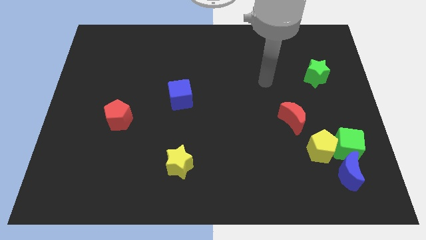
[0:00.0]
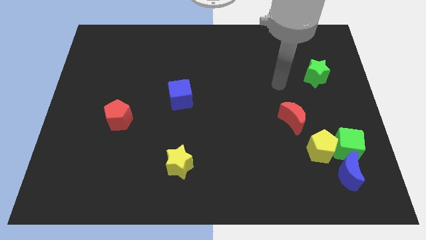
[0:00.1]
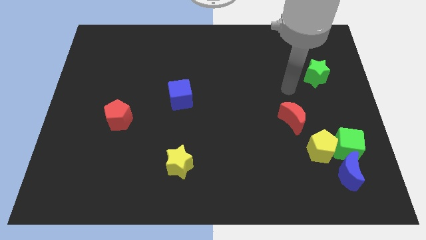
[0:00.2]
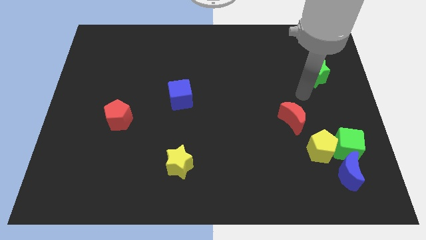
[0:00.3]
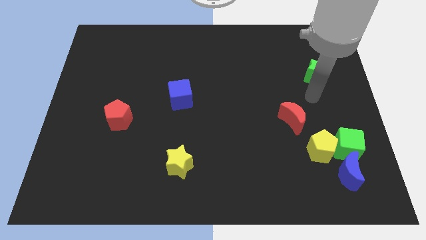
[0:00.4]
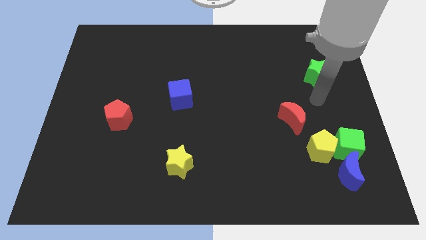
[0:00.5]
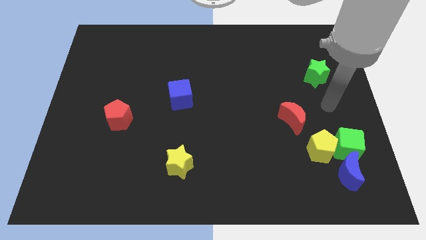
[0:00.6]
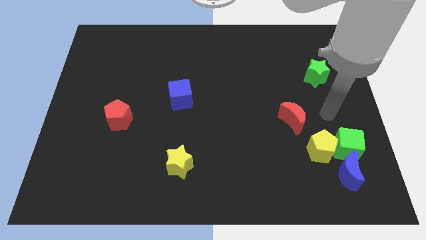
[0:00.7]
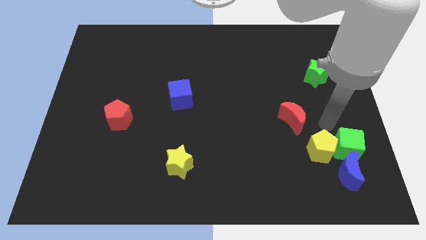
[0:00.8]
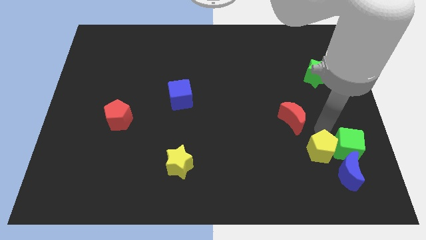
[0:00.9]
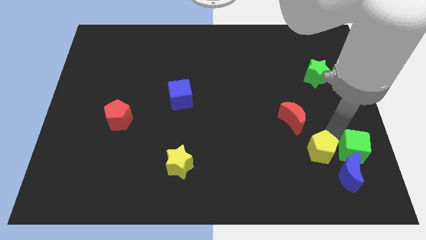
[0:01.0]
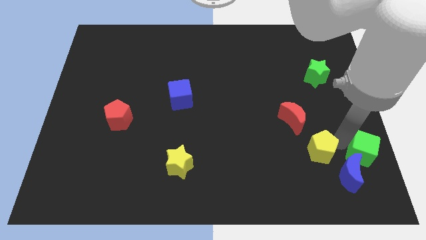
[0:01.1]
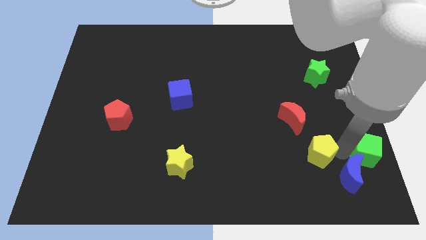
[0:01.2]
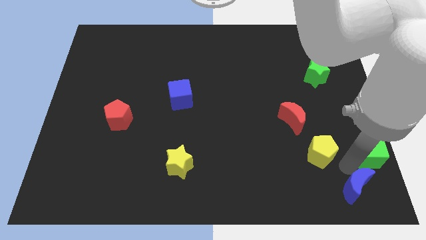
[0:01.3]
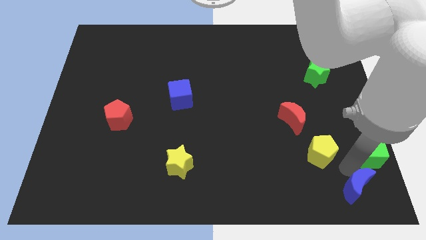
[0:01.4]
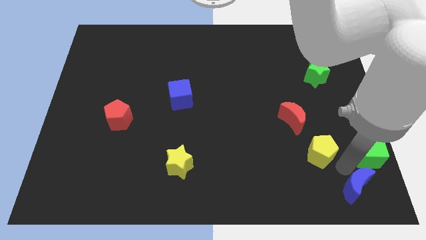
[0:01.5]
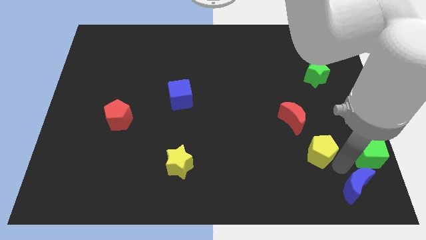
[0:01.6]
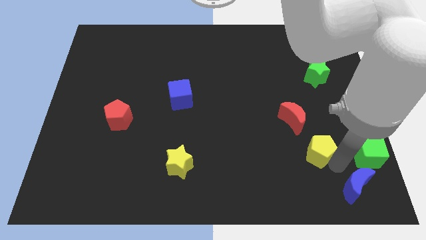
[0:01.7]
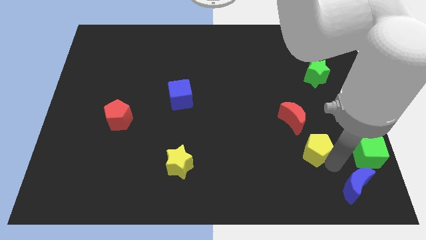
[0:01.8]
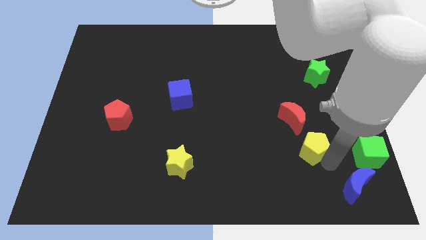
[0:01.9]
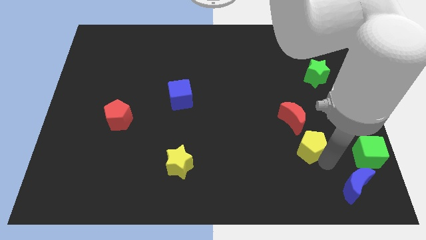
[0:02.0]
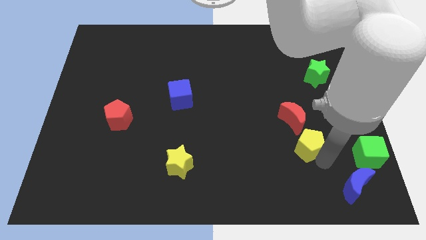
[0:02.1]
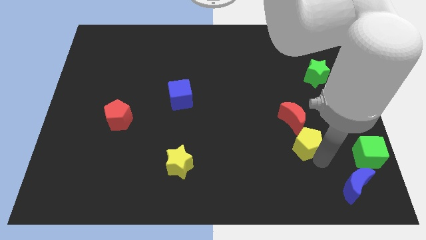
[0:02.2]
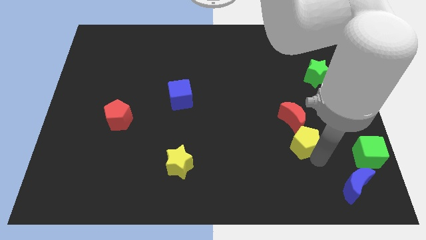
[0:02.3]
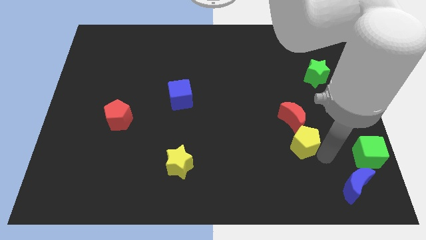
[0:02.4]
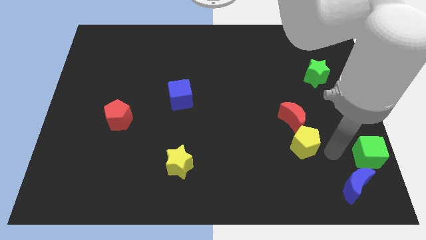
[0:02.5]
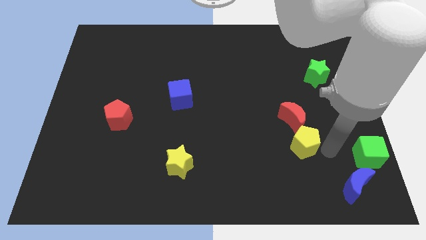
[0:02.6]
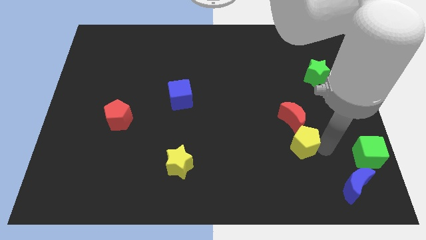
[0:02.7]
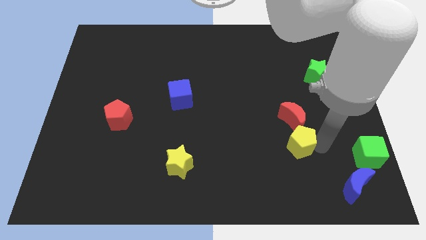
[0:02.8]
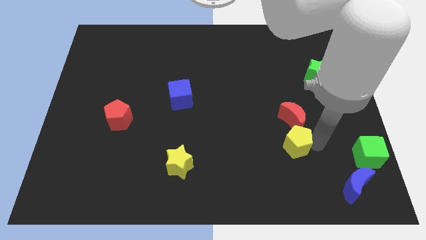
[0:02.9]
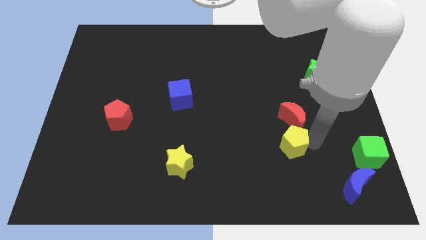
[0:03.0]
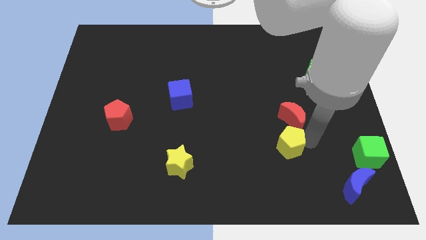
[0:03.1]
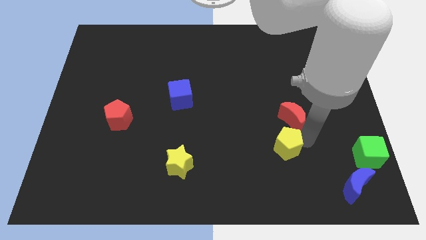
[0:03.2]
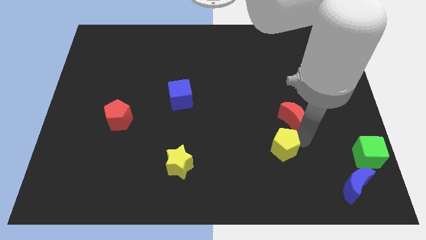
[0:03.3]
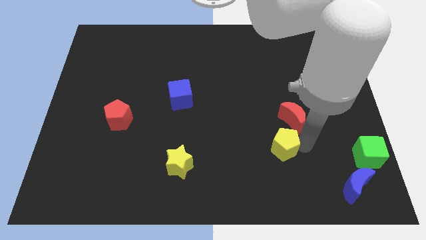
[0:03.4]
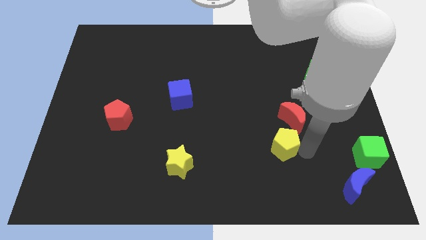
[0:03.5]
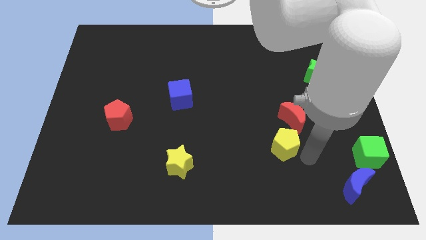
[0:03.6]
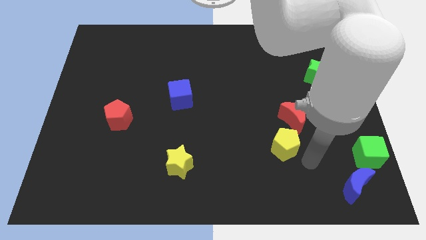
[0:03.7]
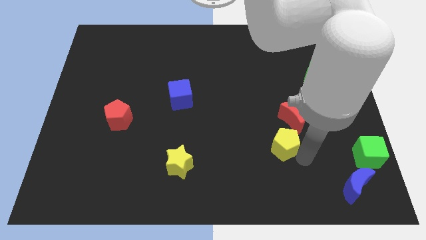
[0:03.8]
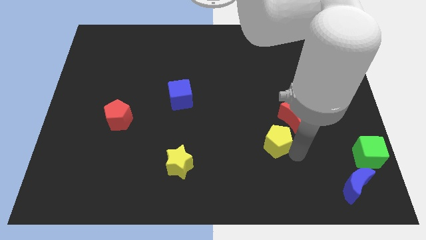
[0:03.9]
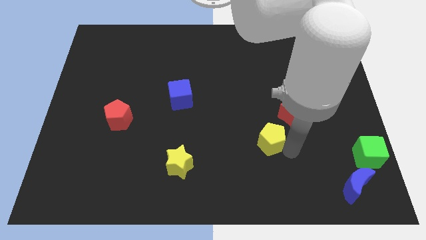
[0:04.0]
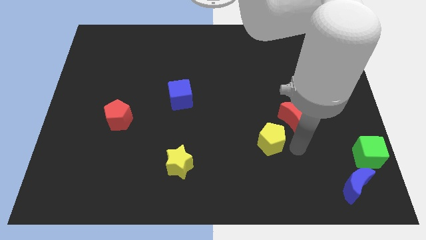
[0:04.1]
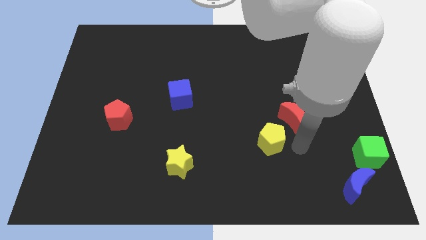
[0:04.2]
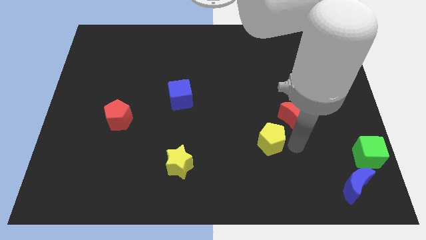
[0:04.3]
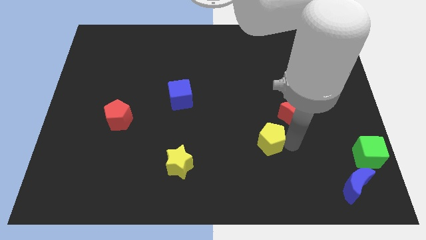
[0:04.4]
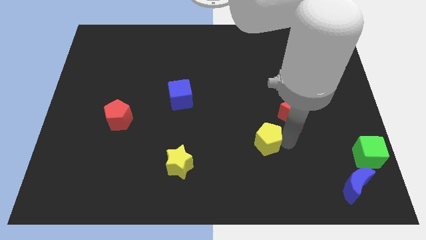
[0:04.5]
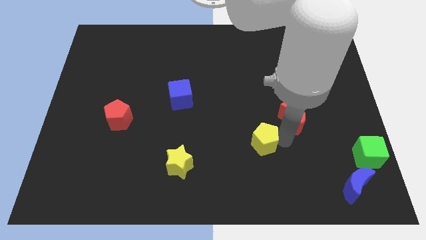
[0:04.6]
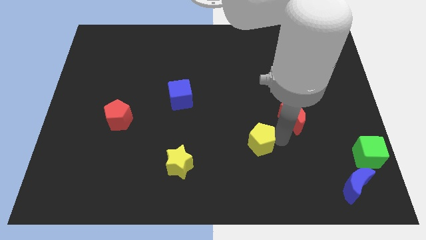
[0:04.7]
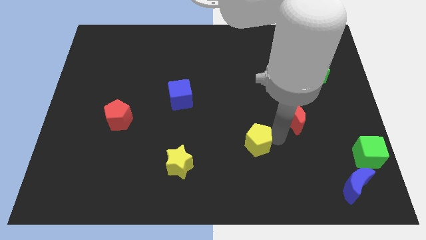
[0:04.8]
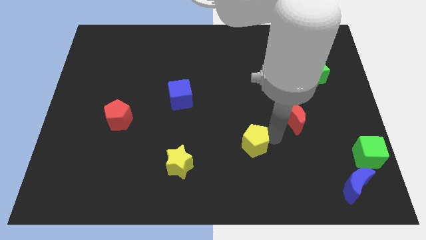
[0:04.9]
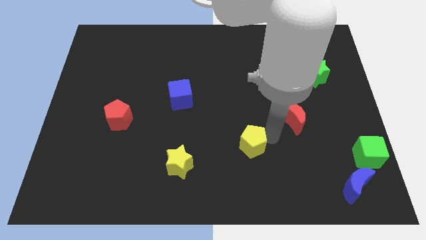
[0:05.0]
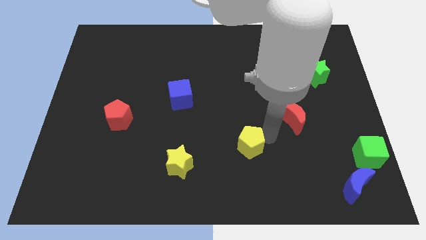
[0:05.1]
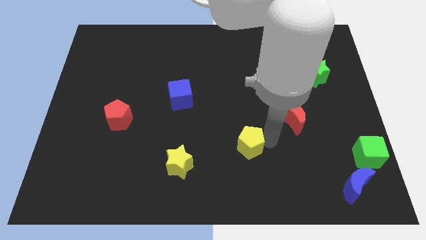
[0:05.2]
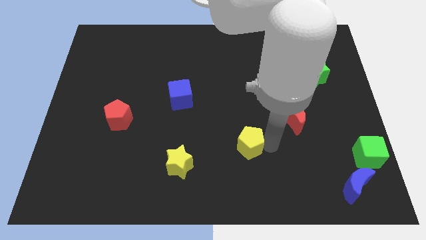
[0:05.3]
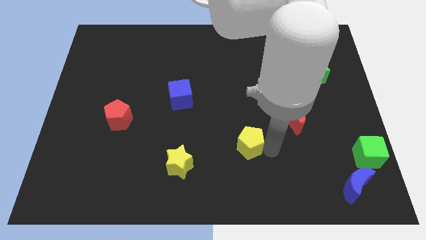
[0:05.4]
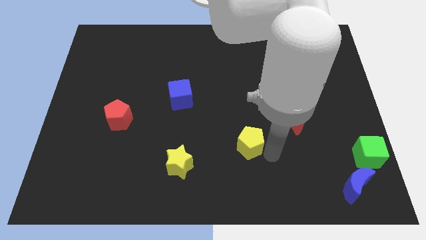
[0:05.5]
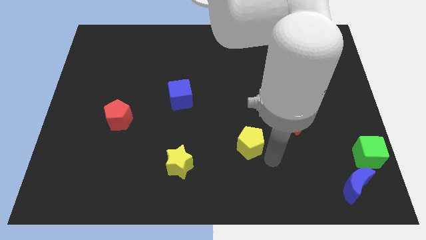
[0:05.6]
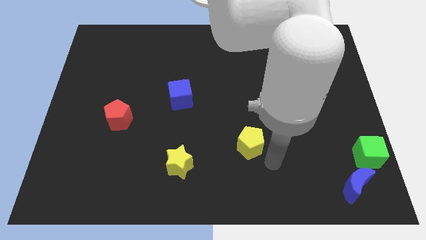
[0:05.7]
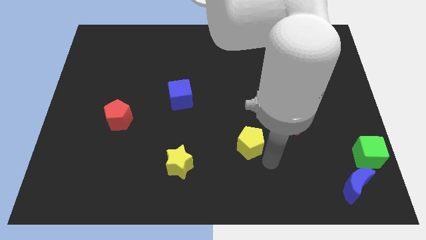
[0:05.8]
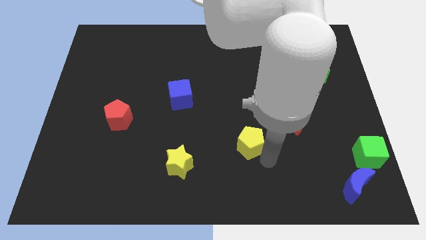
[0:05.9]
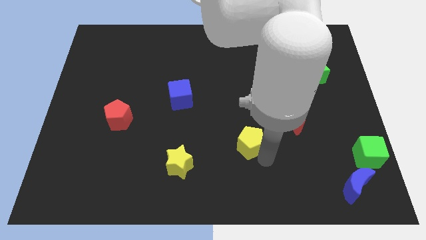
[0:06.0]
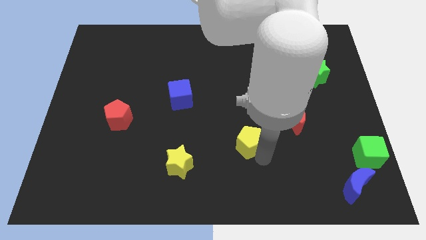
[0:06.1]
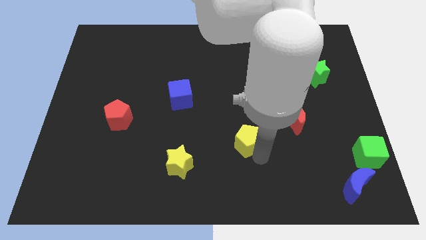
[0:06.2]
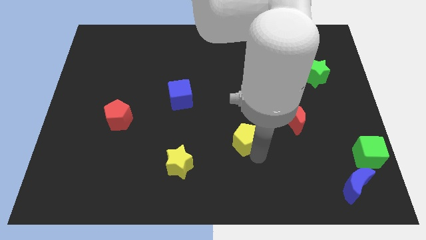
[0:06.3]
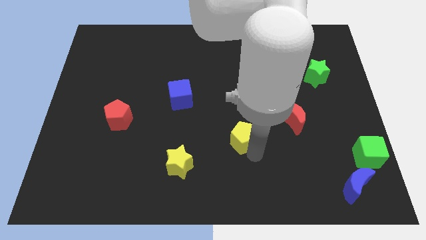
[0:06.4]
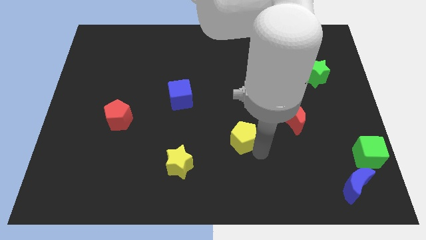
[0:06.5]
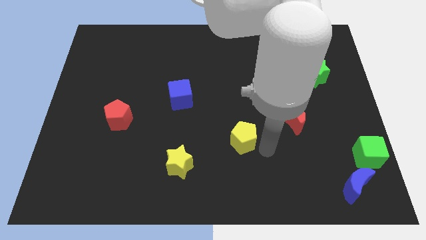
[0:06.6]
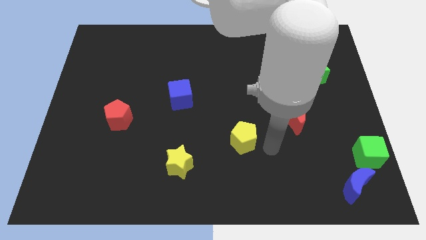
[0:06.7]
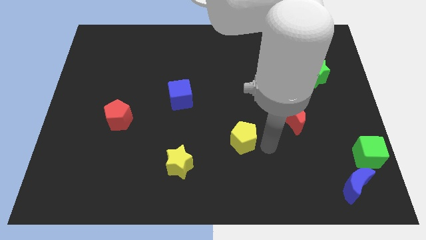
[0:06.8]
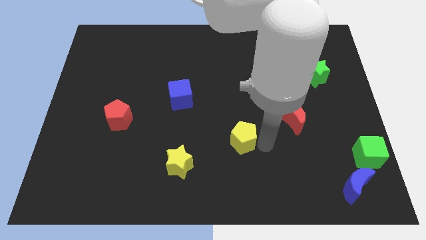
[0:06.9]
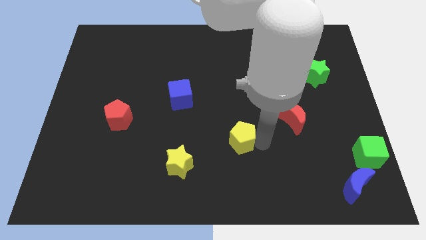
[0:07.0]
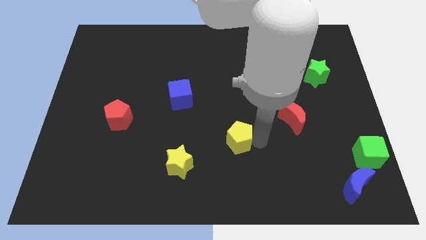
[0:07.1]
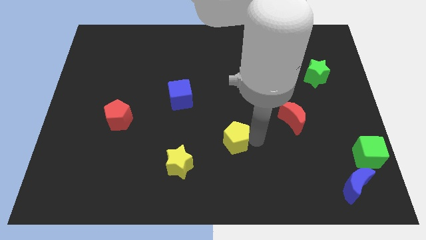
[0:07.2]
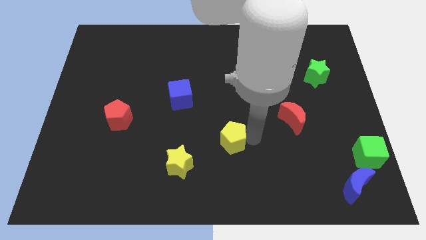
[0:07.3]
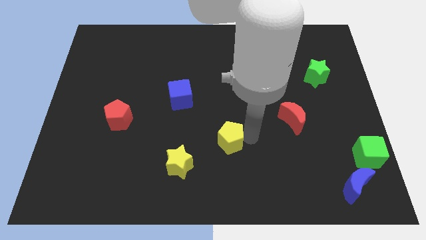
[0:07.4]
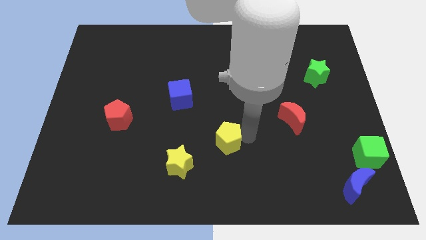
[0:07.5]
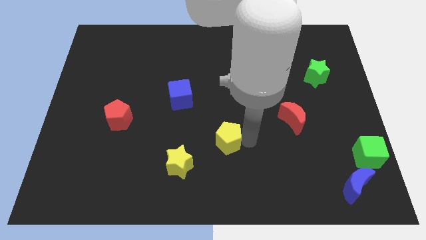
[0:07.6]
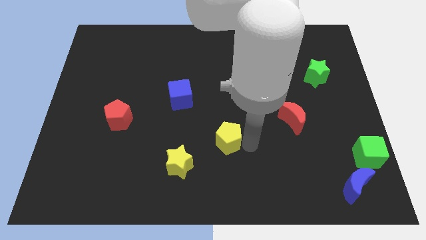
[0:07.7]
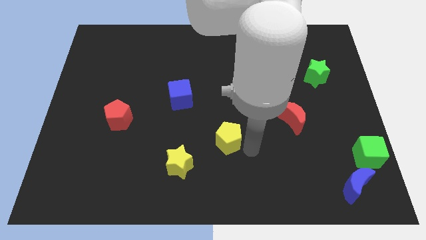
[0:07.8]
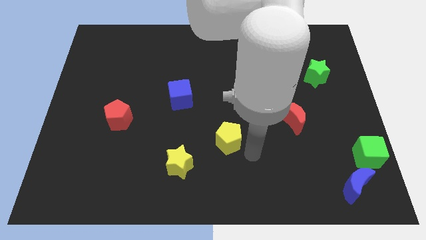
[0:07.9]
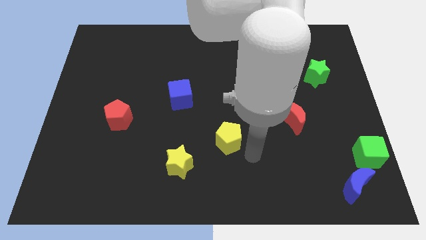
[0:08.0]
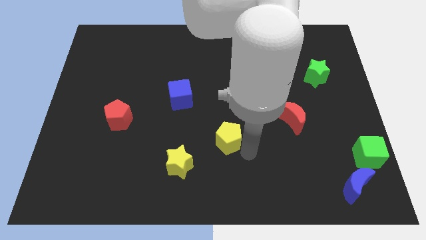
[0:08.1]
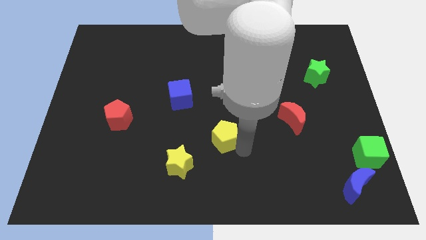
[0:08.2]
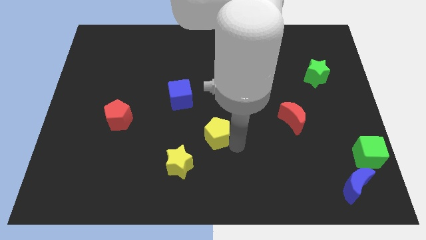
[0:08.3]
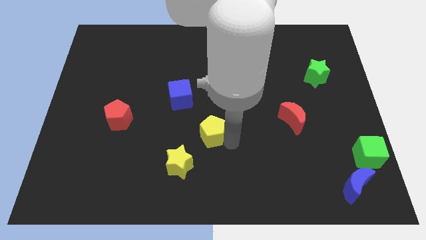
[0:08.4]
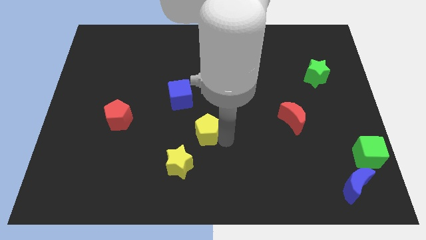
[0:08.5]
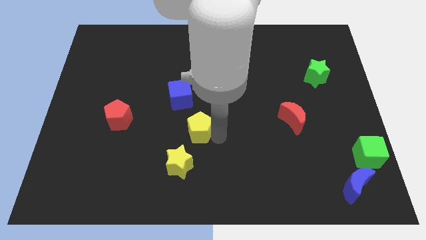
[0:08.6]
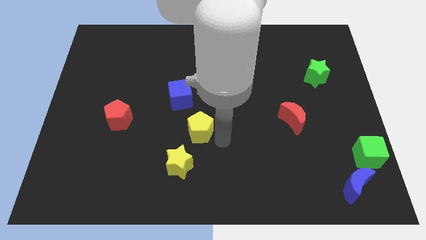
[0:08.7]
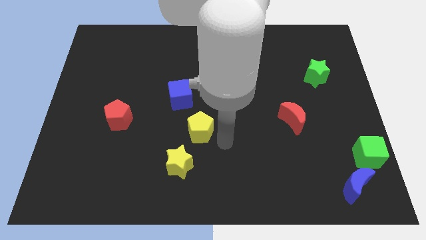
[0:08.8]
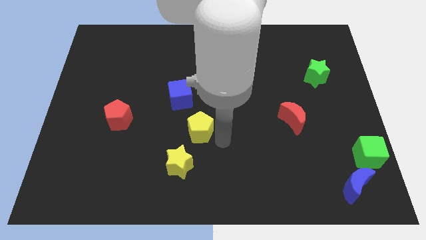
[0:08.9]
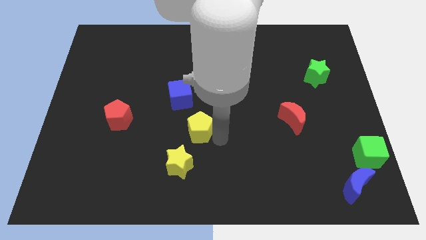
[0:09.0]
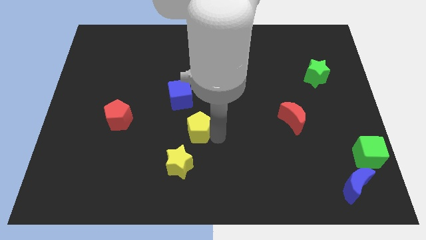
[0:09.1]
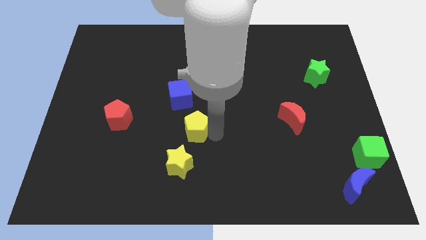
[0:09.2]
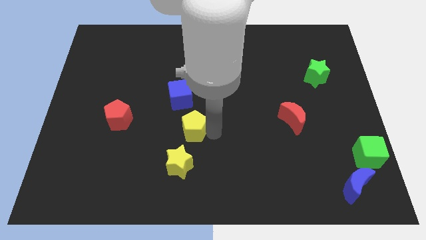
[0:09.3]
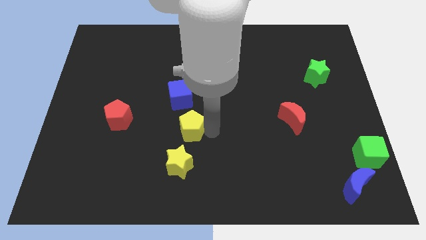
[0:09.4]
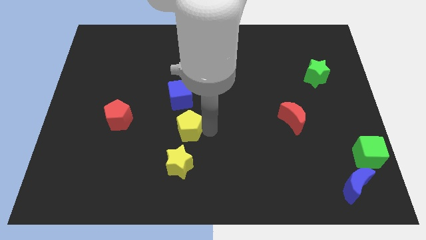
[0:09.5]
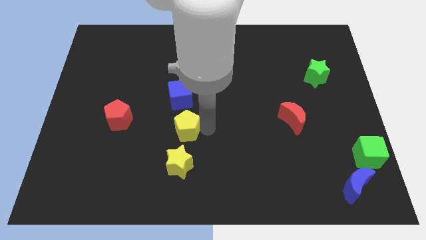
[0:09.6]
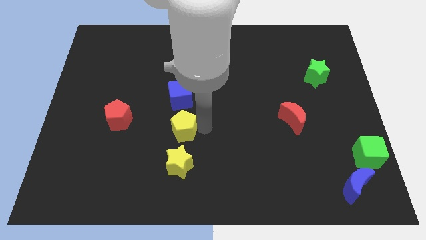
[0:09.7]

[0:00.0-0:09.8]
put the yellow pentagon just right of the red pentagon
